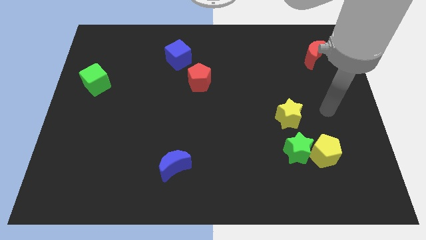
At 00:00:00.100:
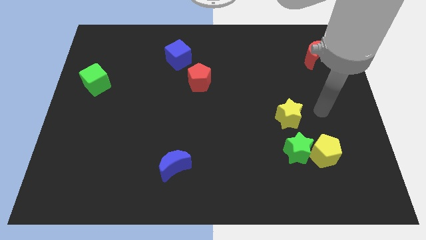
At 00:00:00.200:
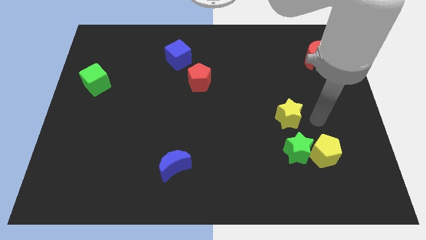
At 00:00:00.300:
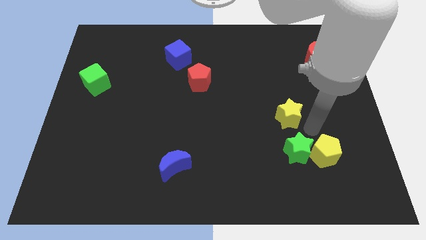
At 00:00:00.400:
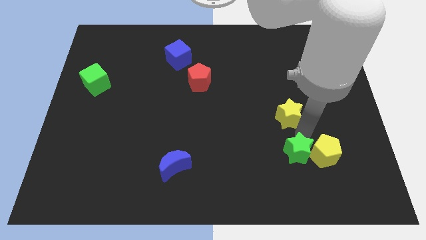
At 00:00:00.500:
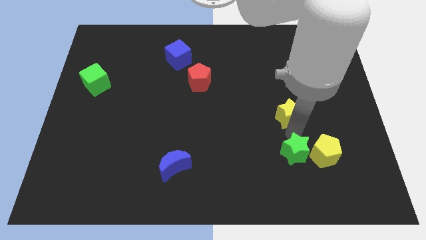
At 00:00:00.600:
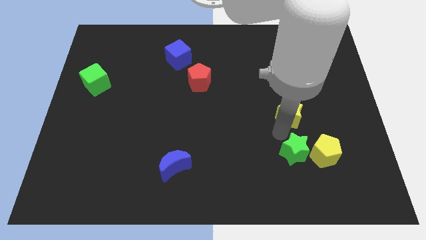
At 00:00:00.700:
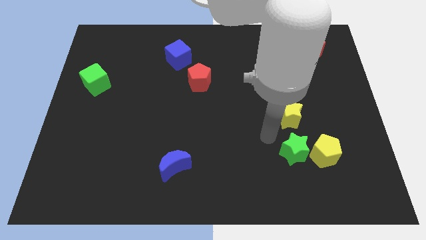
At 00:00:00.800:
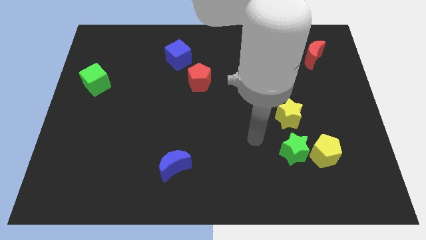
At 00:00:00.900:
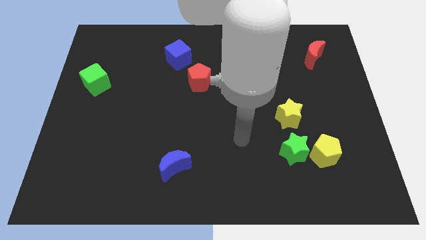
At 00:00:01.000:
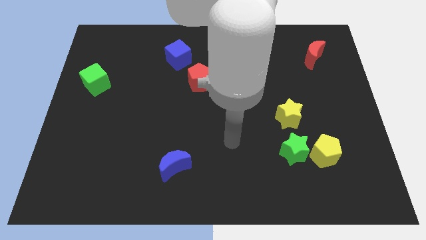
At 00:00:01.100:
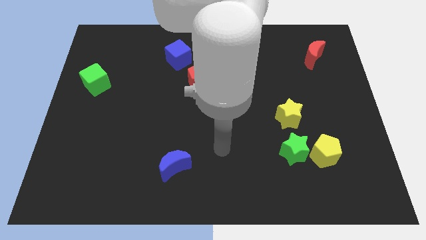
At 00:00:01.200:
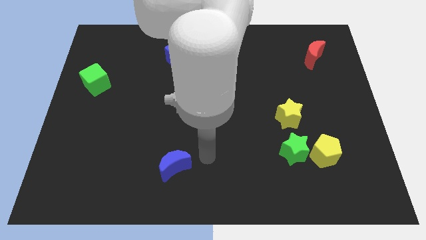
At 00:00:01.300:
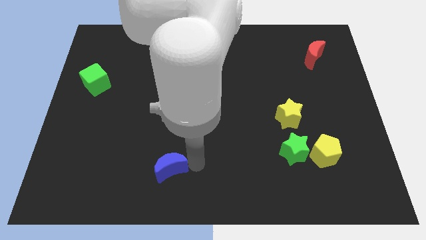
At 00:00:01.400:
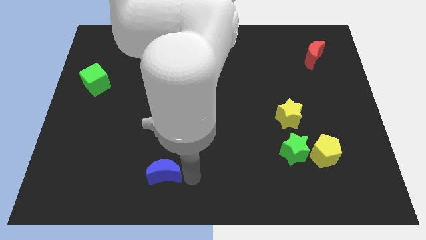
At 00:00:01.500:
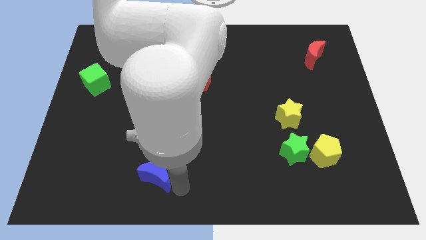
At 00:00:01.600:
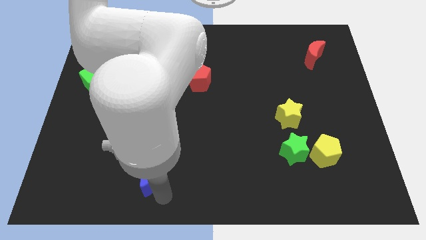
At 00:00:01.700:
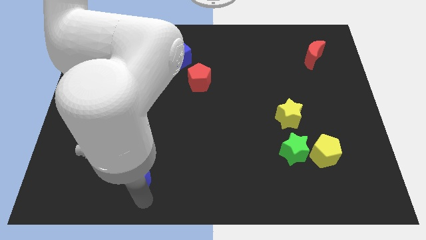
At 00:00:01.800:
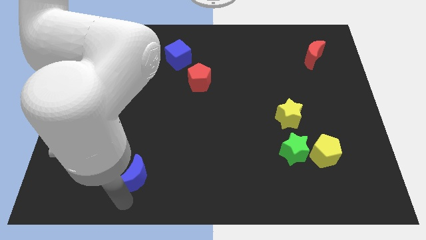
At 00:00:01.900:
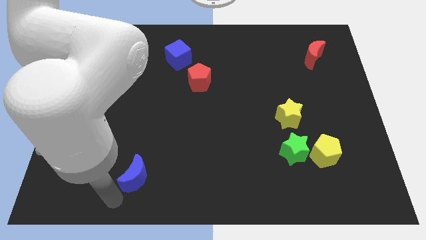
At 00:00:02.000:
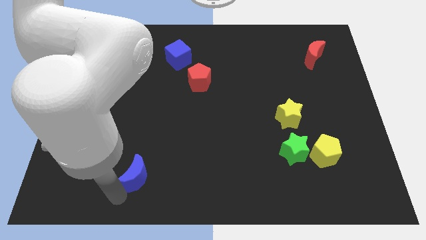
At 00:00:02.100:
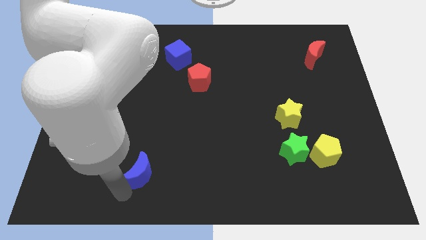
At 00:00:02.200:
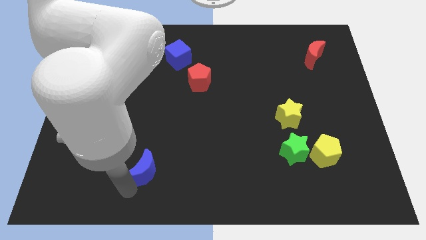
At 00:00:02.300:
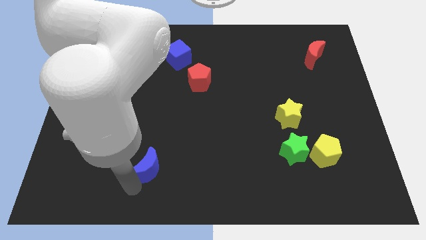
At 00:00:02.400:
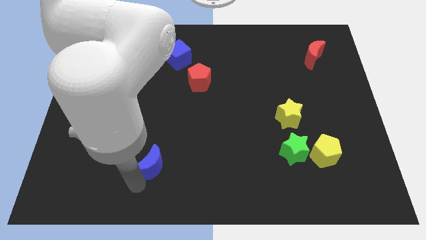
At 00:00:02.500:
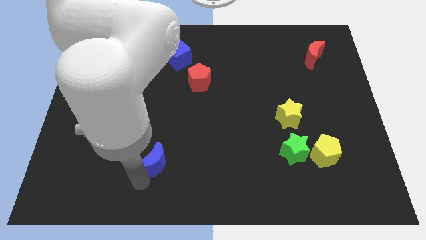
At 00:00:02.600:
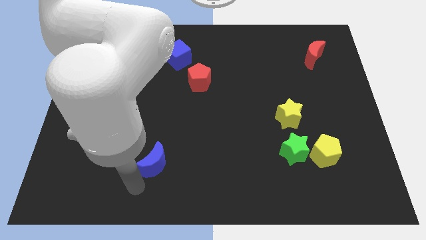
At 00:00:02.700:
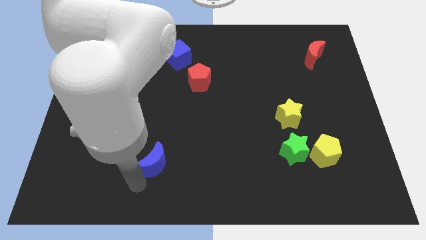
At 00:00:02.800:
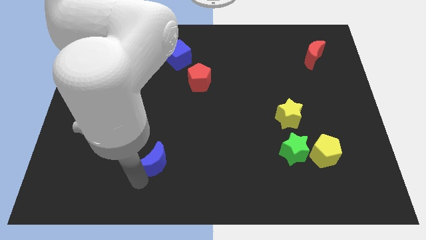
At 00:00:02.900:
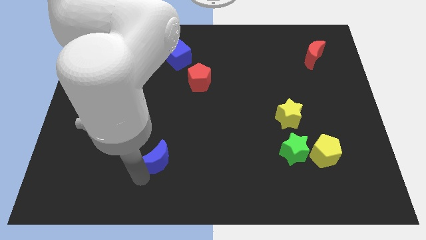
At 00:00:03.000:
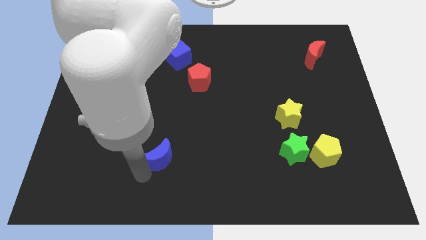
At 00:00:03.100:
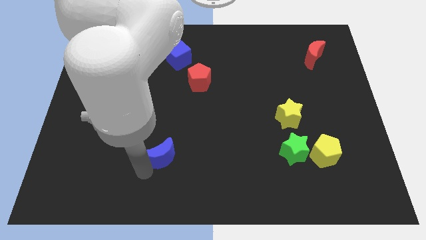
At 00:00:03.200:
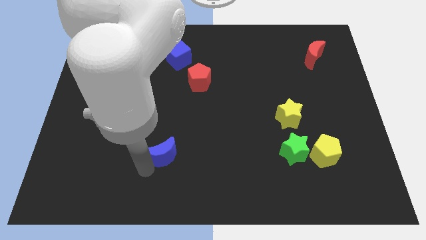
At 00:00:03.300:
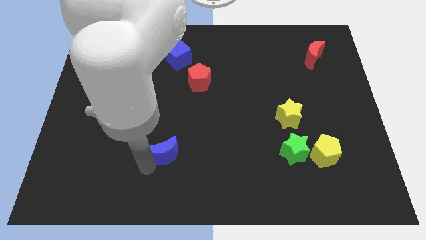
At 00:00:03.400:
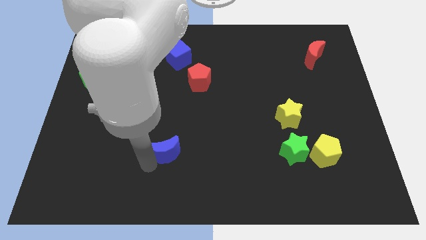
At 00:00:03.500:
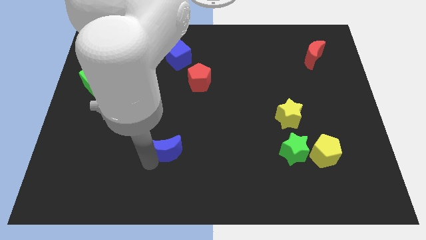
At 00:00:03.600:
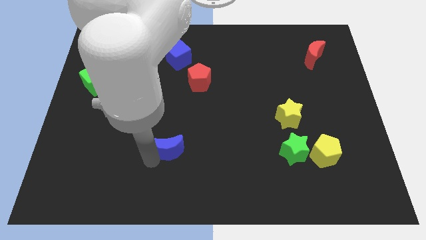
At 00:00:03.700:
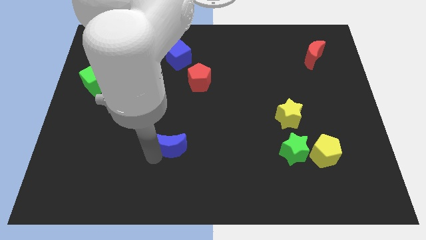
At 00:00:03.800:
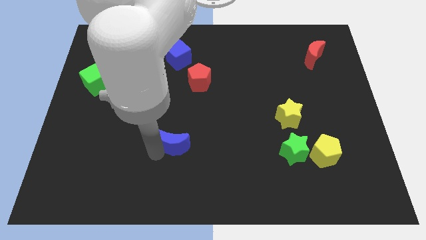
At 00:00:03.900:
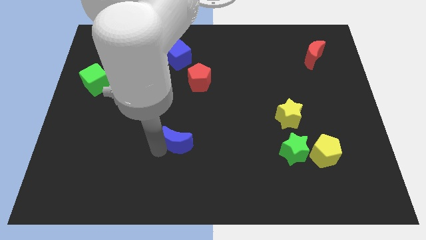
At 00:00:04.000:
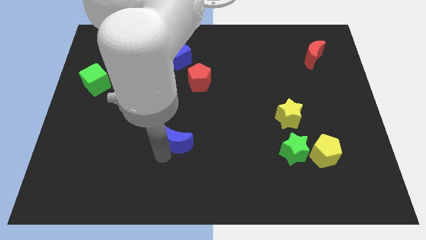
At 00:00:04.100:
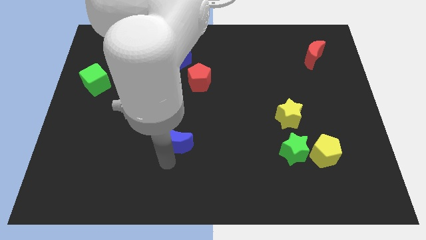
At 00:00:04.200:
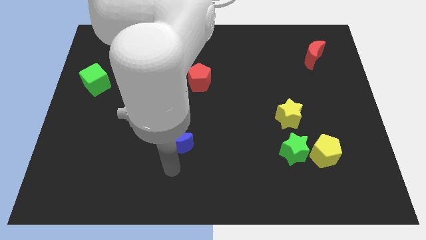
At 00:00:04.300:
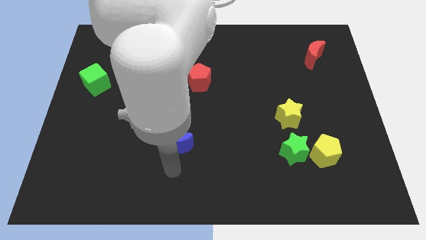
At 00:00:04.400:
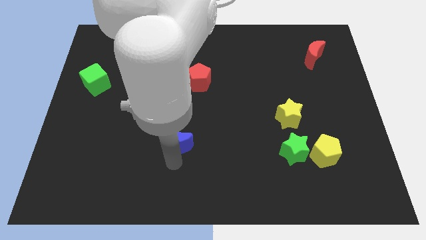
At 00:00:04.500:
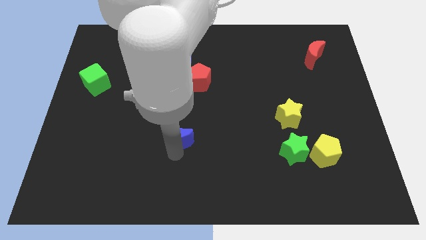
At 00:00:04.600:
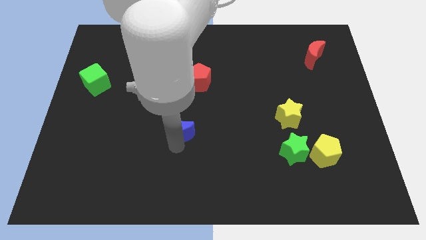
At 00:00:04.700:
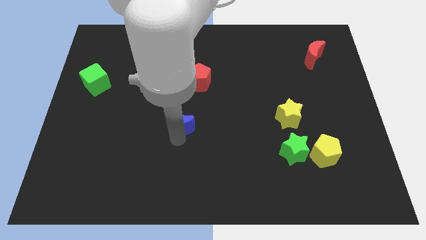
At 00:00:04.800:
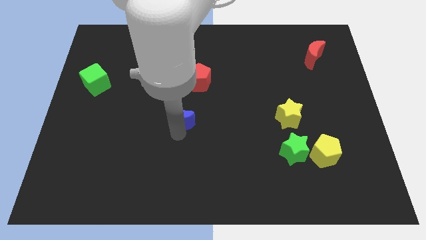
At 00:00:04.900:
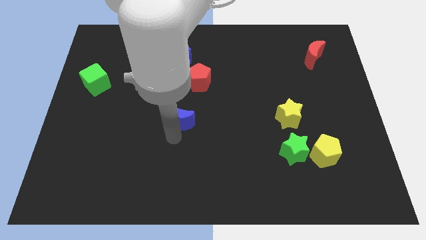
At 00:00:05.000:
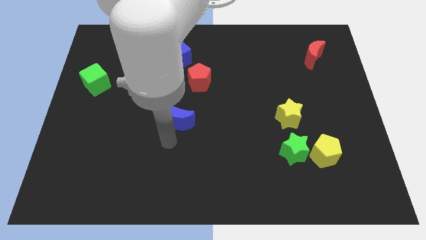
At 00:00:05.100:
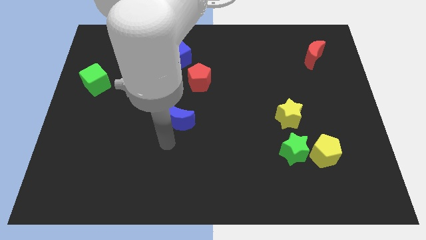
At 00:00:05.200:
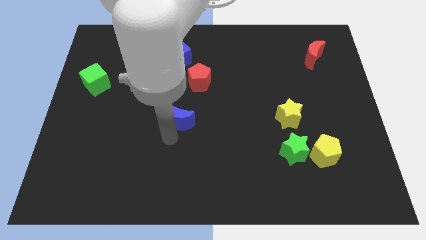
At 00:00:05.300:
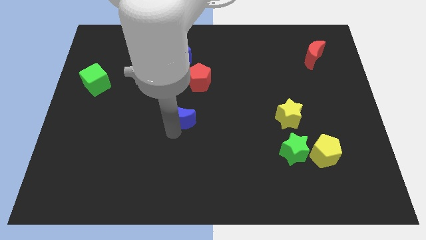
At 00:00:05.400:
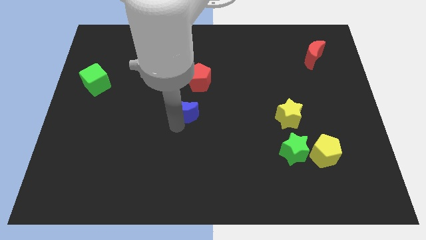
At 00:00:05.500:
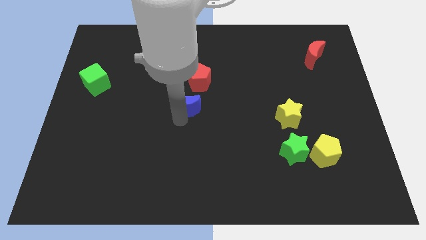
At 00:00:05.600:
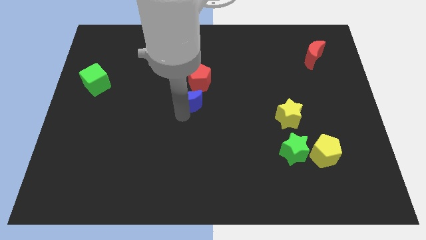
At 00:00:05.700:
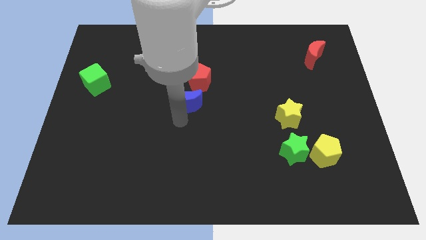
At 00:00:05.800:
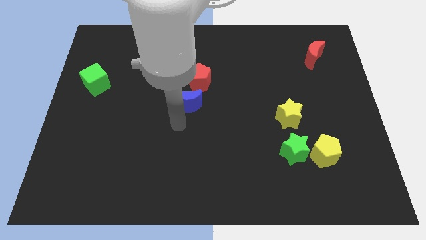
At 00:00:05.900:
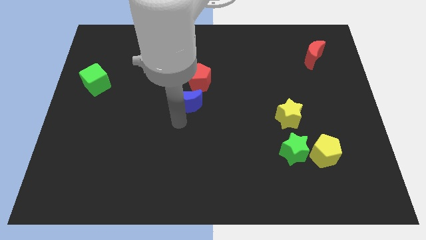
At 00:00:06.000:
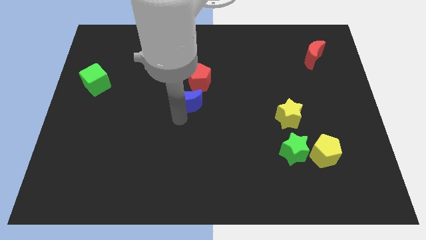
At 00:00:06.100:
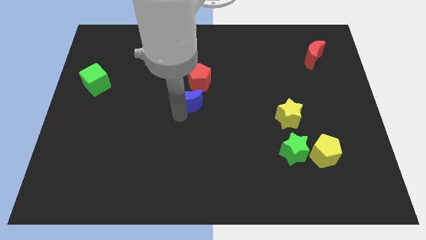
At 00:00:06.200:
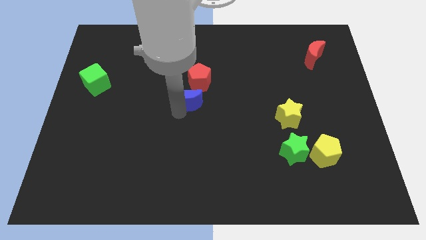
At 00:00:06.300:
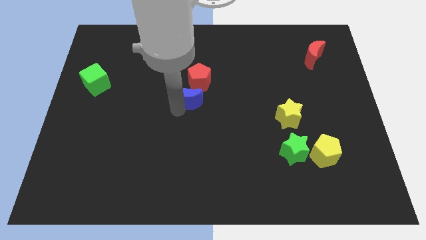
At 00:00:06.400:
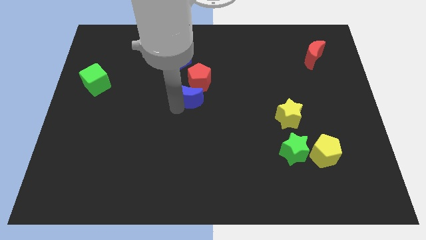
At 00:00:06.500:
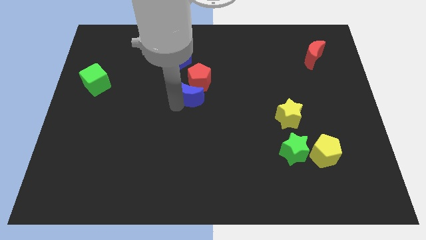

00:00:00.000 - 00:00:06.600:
push the blue moon next to the red pentagon

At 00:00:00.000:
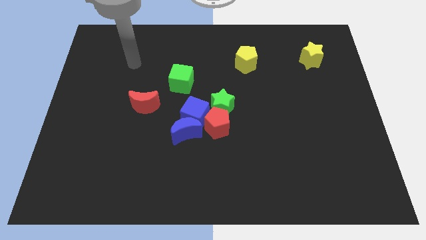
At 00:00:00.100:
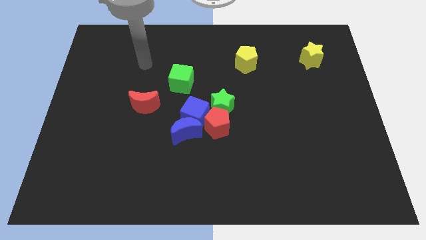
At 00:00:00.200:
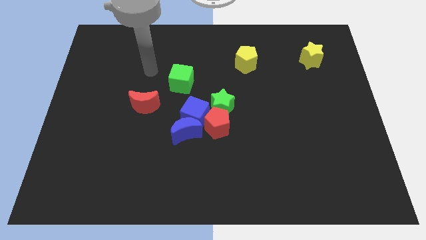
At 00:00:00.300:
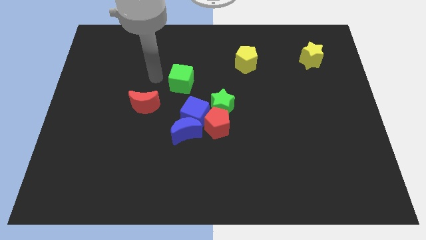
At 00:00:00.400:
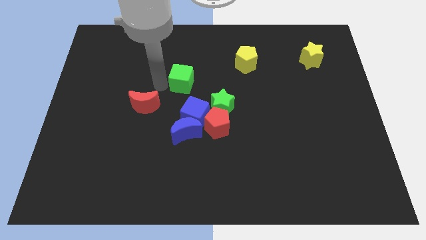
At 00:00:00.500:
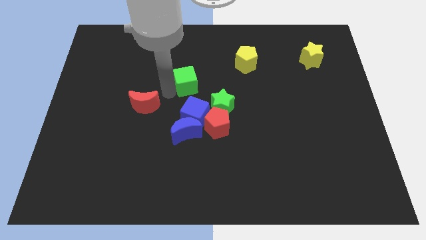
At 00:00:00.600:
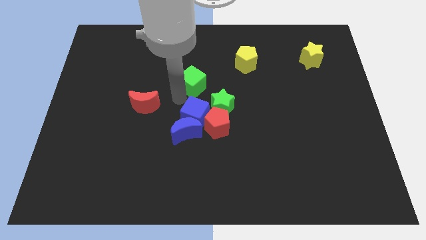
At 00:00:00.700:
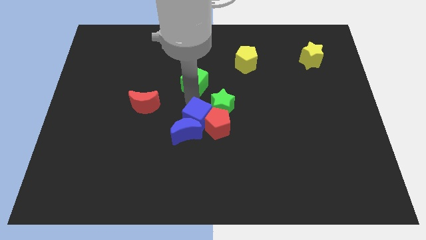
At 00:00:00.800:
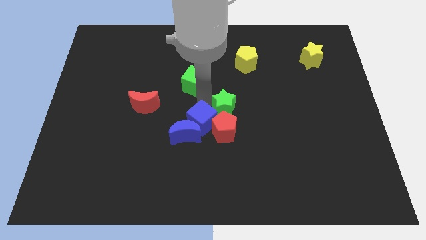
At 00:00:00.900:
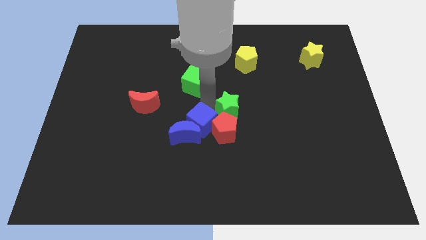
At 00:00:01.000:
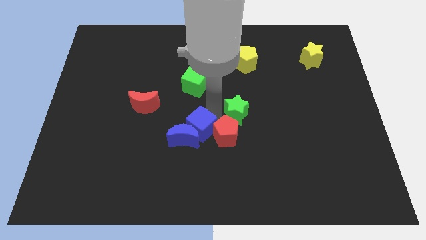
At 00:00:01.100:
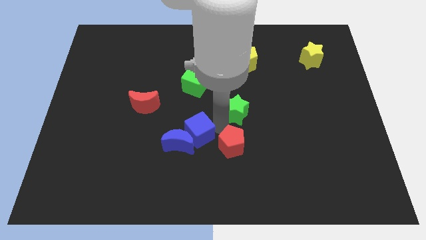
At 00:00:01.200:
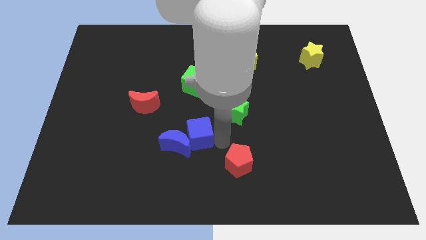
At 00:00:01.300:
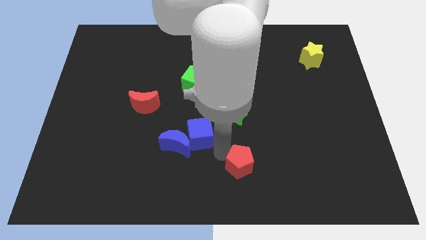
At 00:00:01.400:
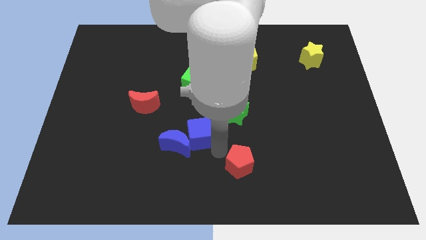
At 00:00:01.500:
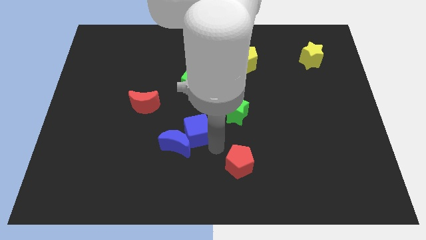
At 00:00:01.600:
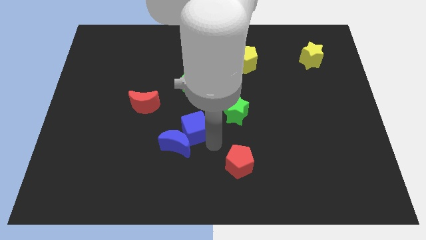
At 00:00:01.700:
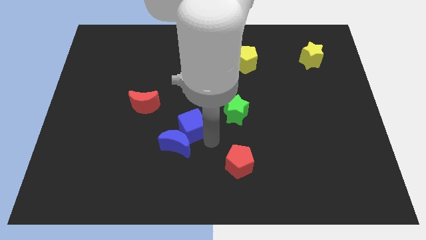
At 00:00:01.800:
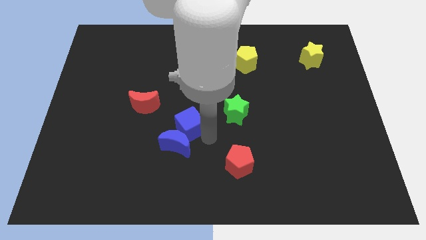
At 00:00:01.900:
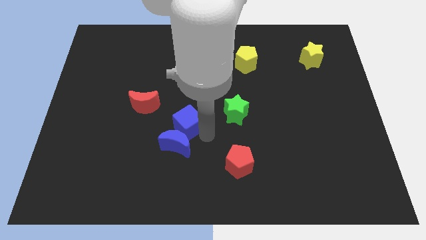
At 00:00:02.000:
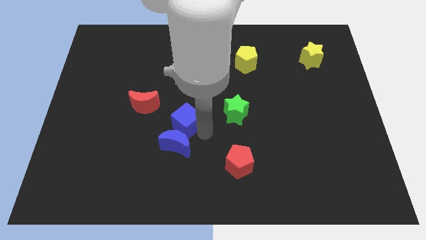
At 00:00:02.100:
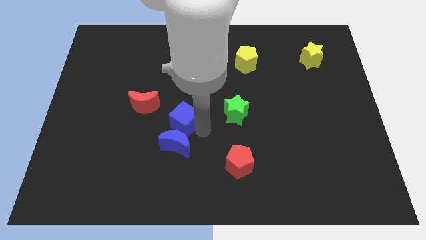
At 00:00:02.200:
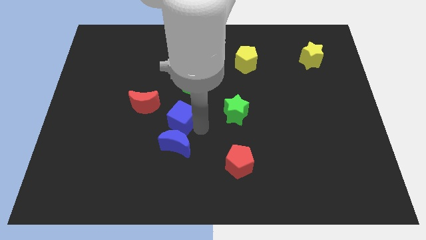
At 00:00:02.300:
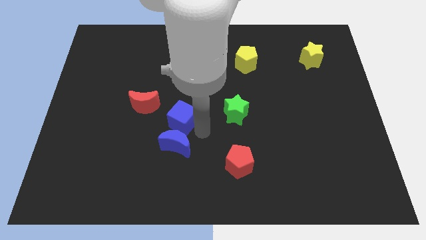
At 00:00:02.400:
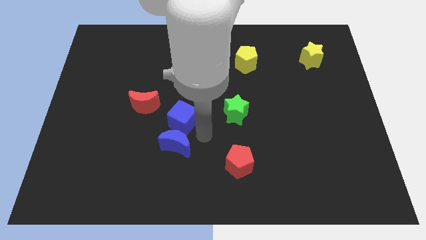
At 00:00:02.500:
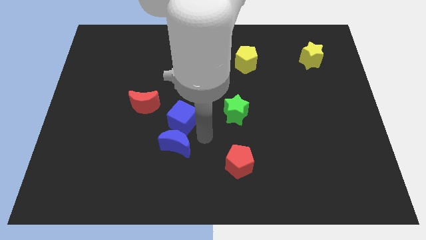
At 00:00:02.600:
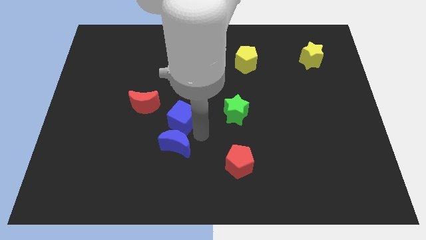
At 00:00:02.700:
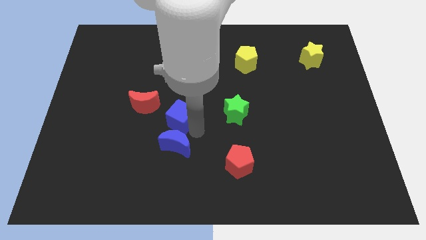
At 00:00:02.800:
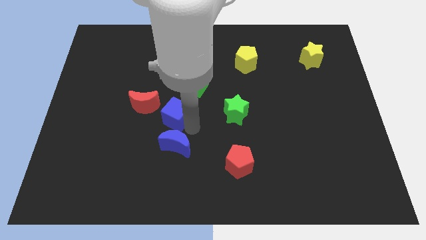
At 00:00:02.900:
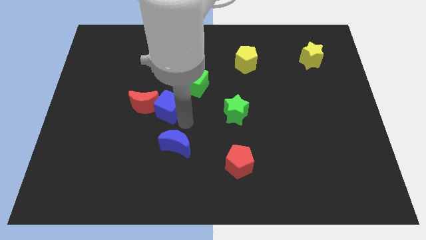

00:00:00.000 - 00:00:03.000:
move the blue cube close to the red moon
